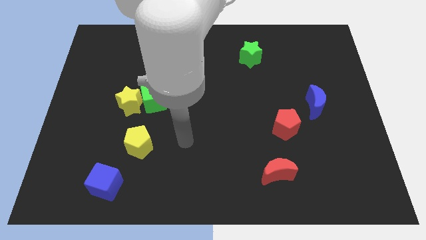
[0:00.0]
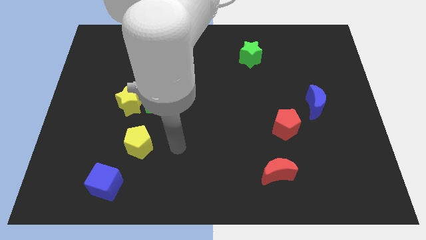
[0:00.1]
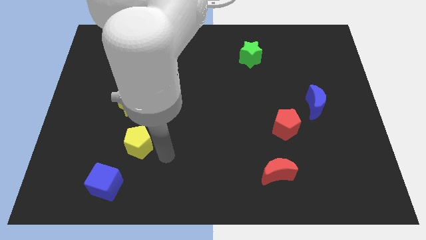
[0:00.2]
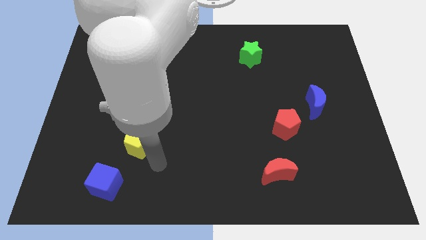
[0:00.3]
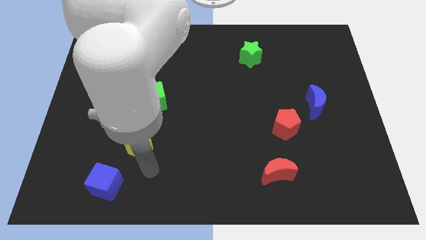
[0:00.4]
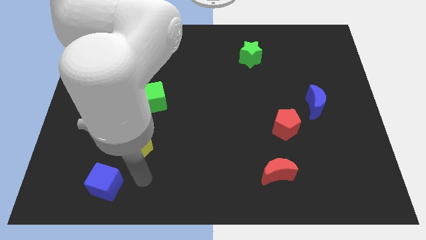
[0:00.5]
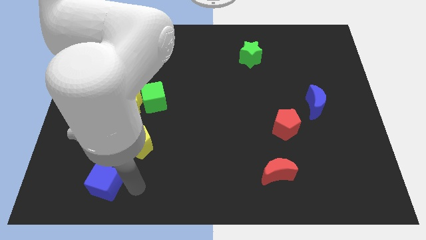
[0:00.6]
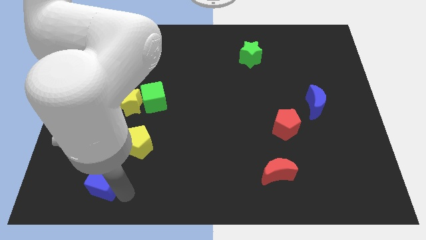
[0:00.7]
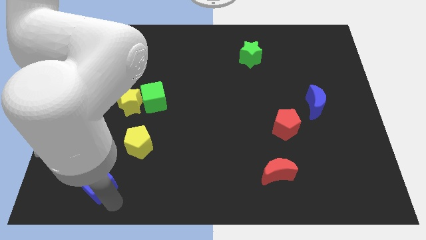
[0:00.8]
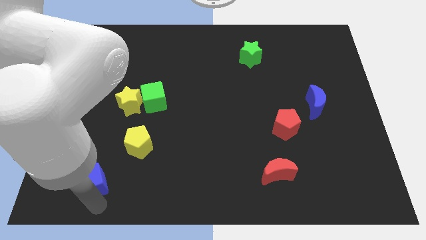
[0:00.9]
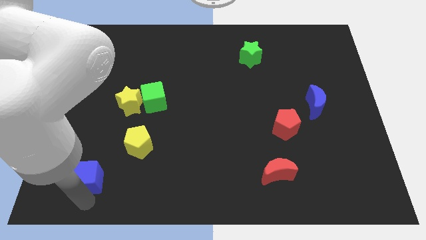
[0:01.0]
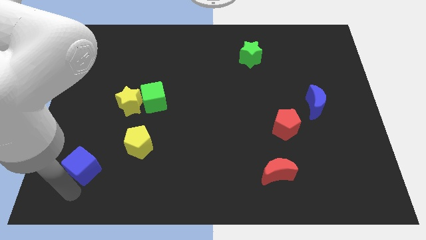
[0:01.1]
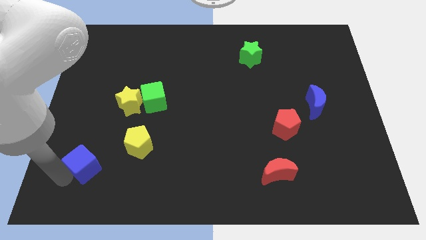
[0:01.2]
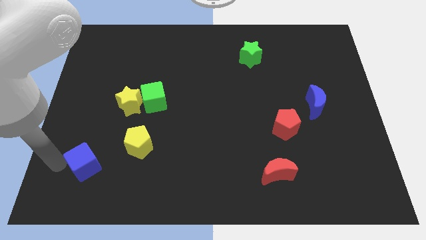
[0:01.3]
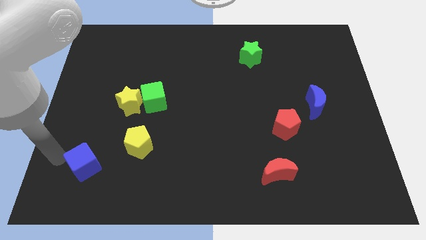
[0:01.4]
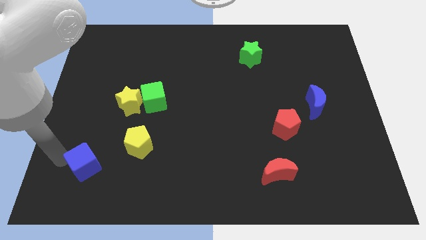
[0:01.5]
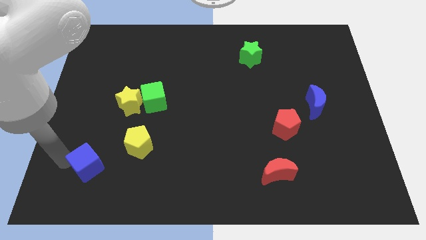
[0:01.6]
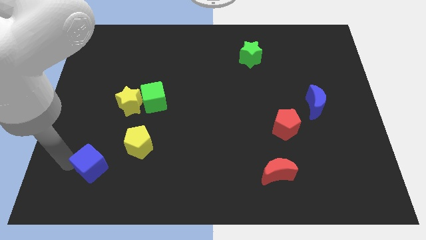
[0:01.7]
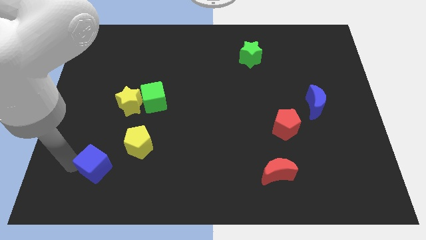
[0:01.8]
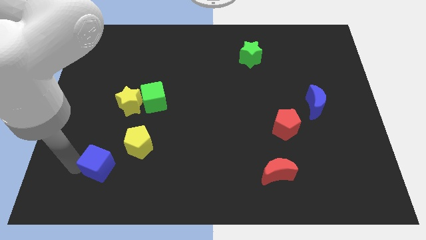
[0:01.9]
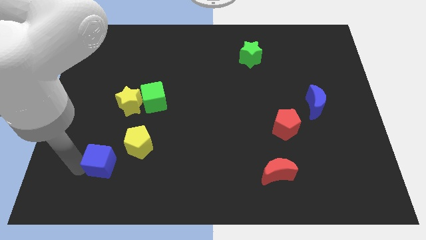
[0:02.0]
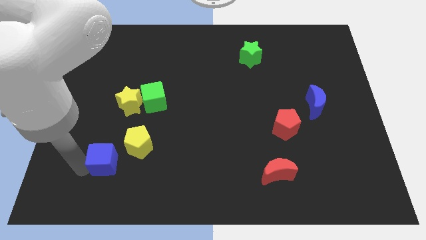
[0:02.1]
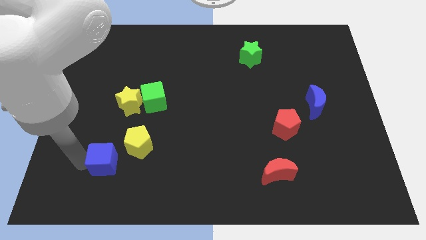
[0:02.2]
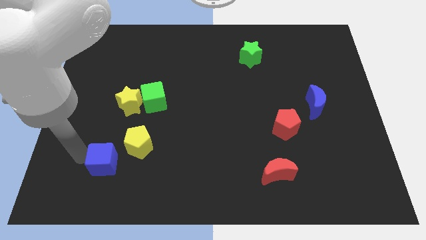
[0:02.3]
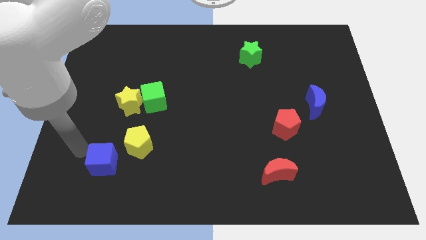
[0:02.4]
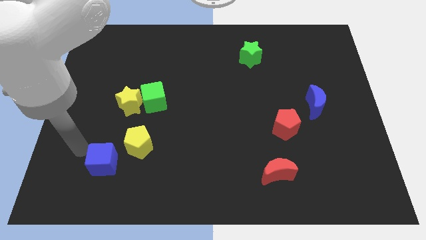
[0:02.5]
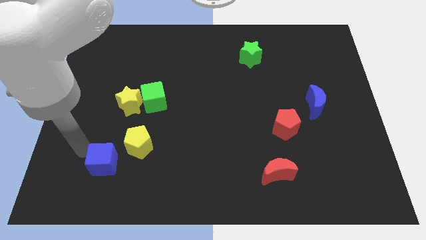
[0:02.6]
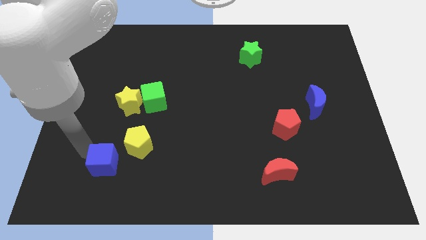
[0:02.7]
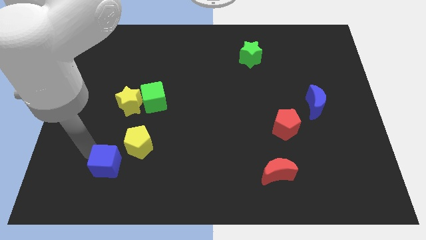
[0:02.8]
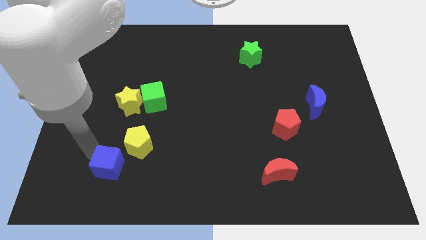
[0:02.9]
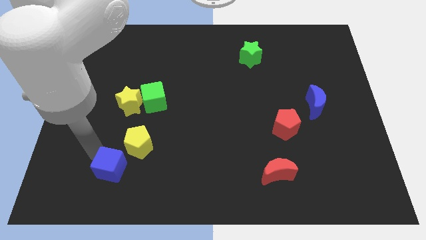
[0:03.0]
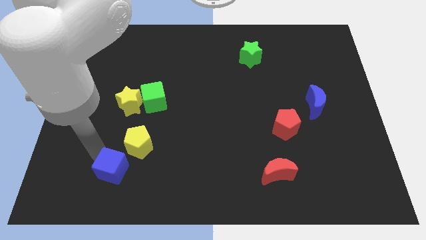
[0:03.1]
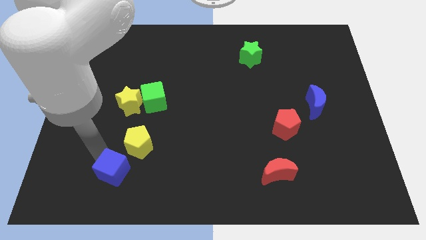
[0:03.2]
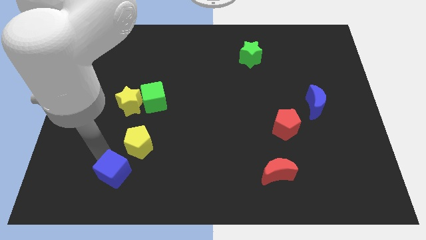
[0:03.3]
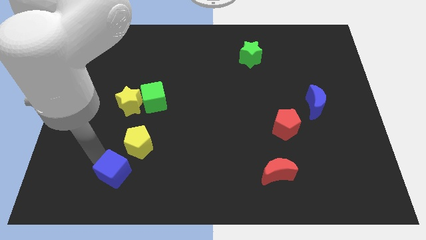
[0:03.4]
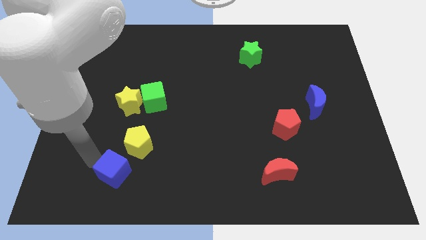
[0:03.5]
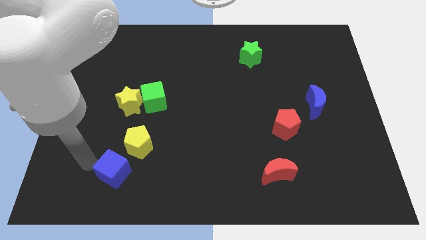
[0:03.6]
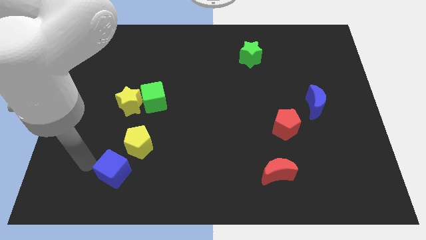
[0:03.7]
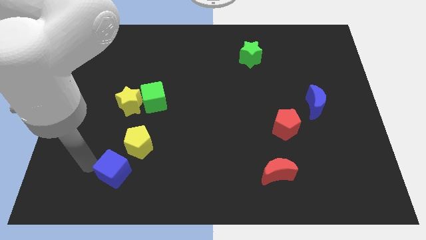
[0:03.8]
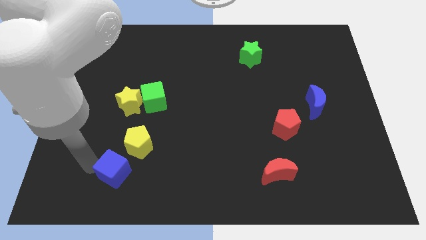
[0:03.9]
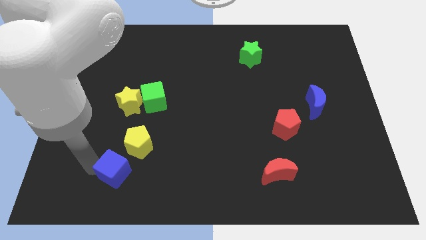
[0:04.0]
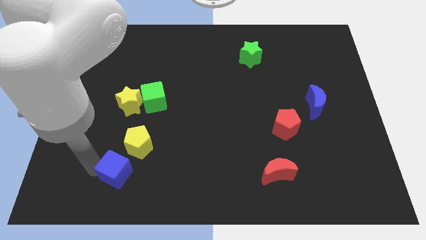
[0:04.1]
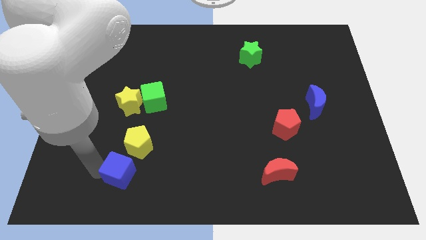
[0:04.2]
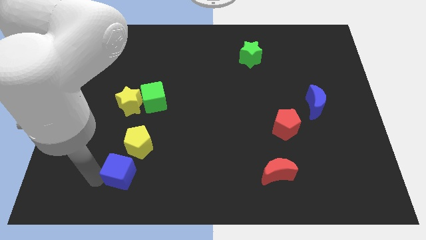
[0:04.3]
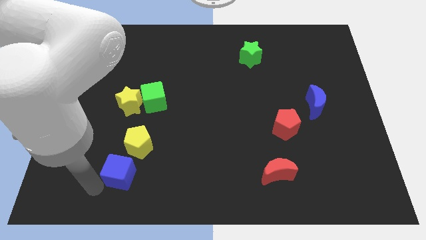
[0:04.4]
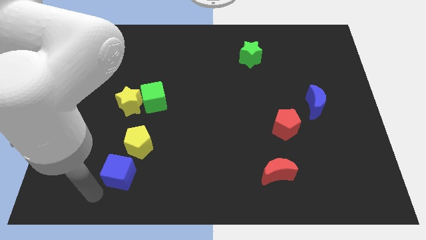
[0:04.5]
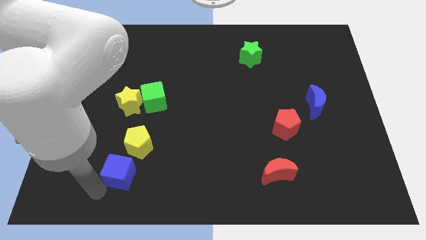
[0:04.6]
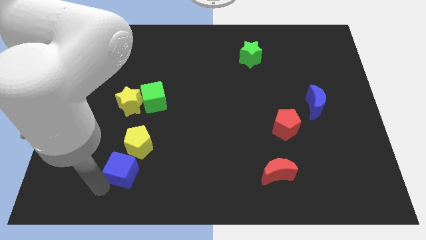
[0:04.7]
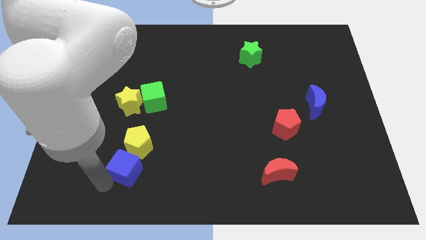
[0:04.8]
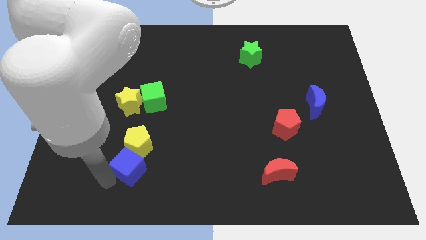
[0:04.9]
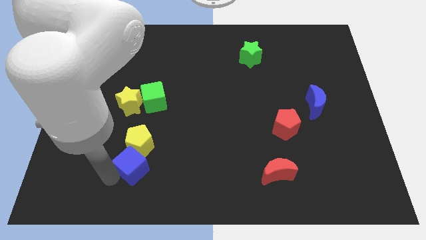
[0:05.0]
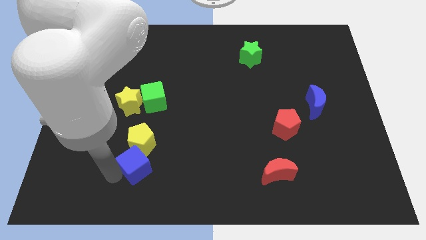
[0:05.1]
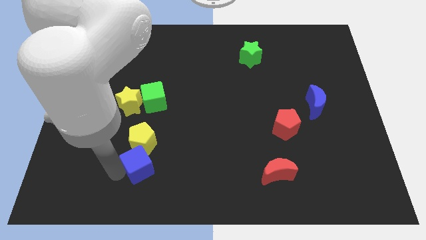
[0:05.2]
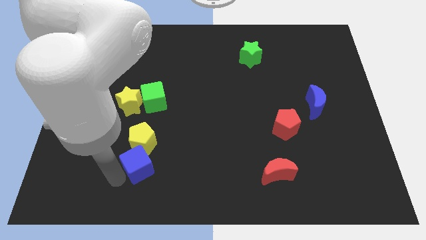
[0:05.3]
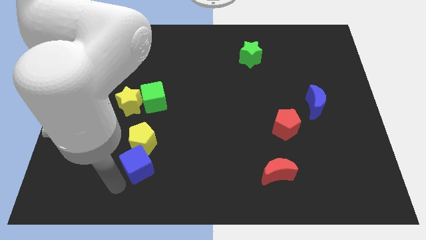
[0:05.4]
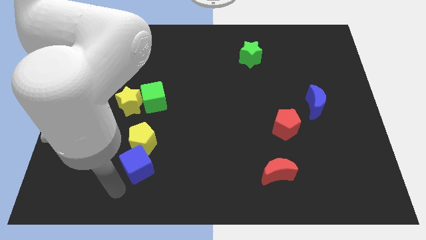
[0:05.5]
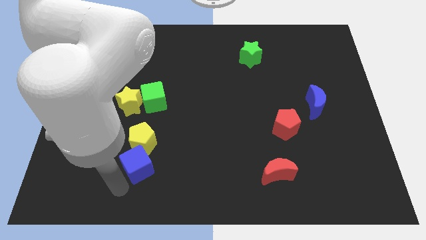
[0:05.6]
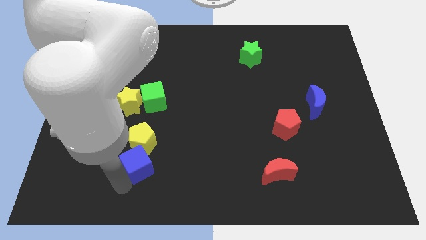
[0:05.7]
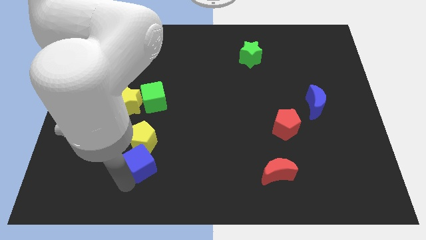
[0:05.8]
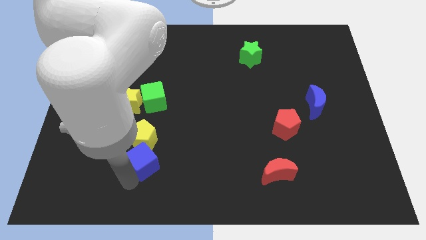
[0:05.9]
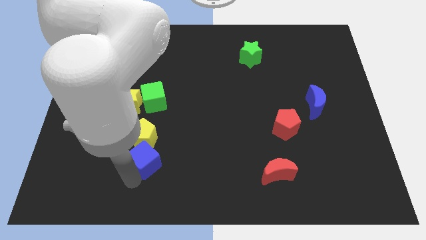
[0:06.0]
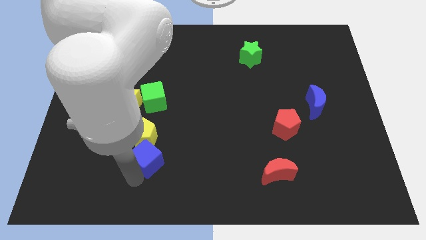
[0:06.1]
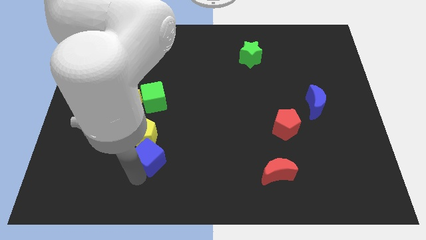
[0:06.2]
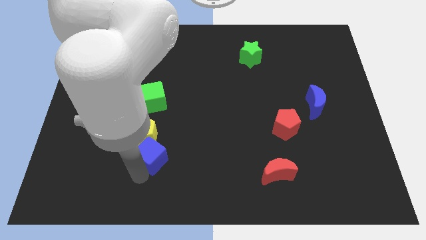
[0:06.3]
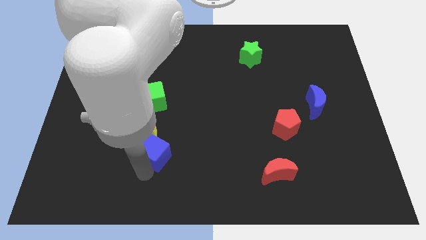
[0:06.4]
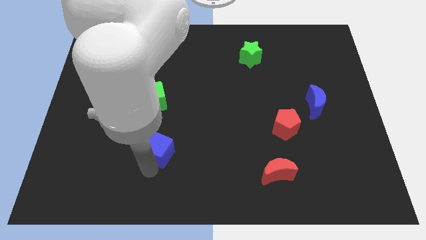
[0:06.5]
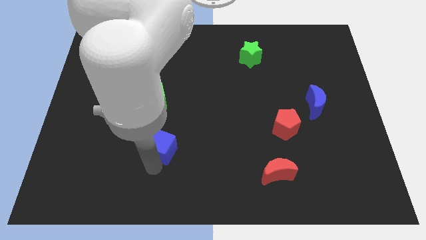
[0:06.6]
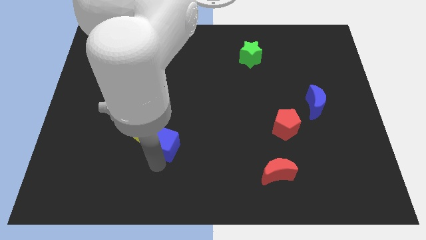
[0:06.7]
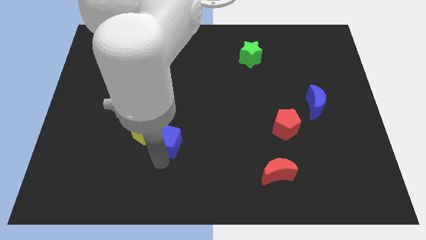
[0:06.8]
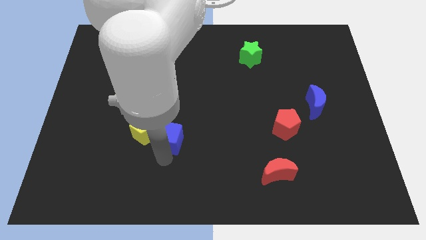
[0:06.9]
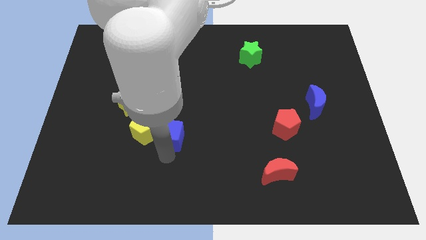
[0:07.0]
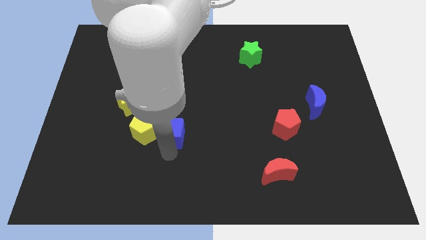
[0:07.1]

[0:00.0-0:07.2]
put the blue cube diagonally up and to the right of the yellow pentagon
